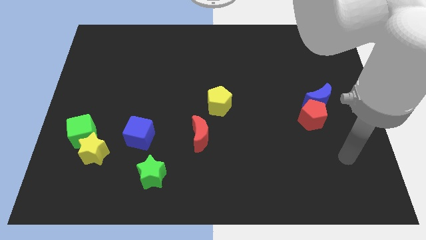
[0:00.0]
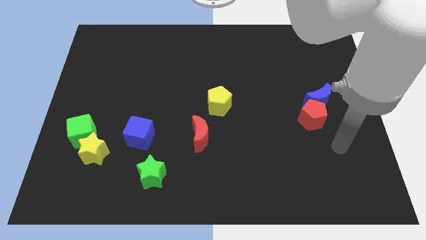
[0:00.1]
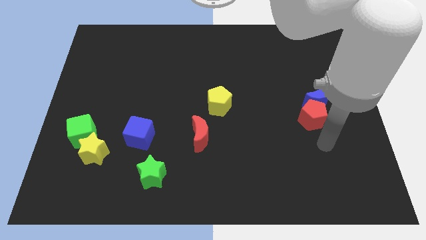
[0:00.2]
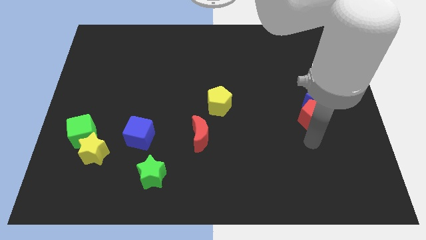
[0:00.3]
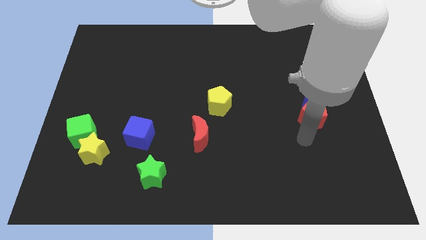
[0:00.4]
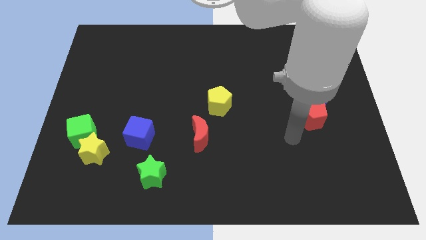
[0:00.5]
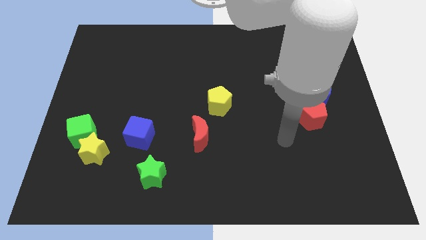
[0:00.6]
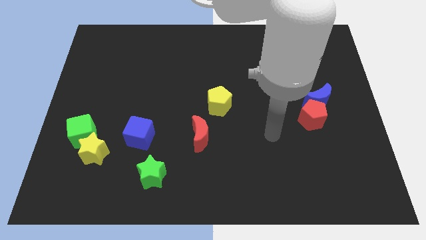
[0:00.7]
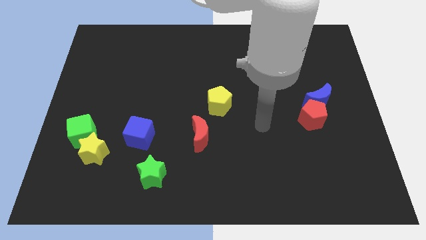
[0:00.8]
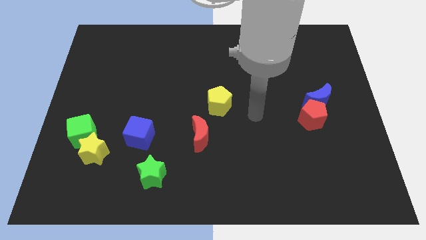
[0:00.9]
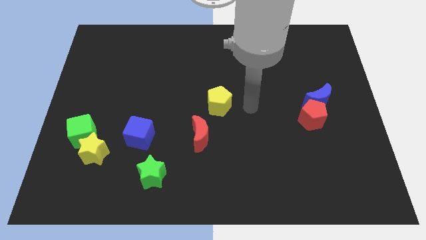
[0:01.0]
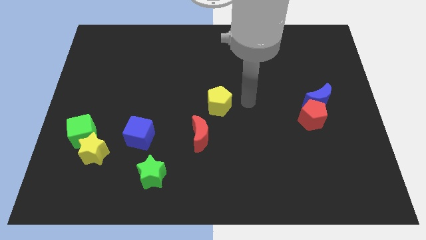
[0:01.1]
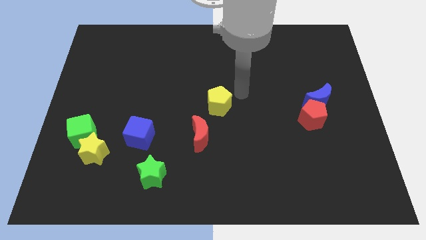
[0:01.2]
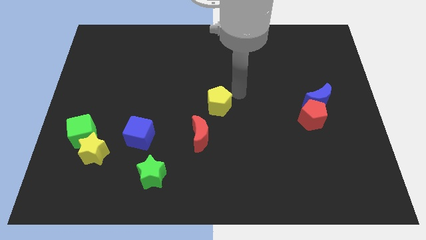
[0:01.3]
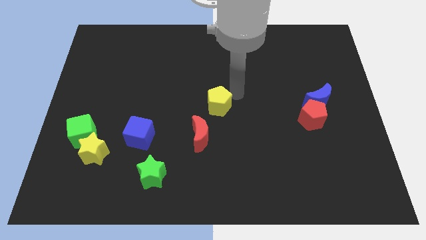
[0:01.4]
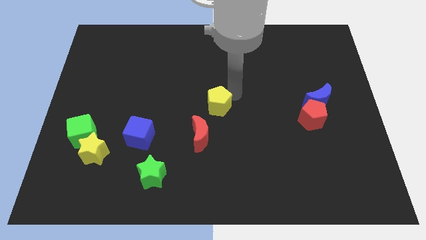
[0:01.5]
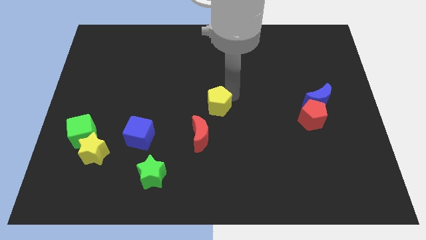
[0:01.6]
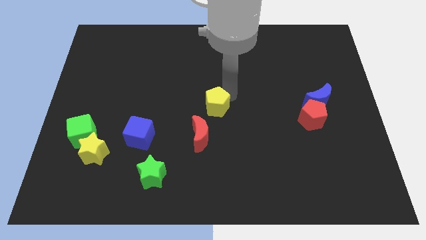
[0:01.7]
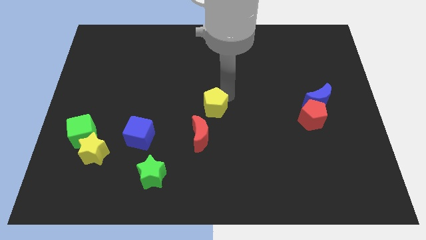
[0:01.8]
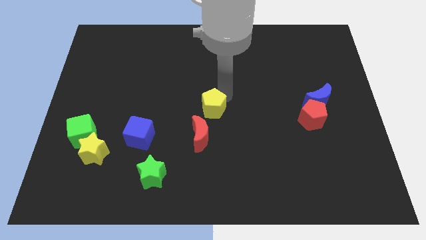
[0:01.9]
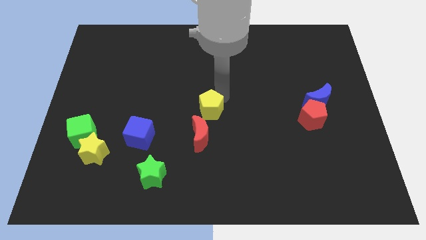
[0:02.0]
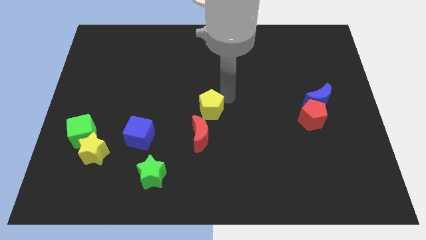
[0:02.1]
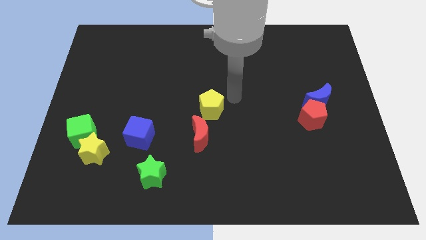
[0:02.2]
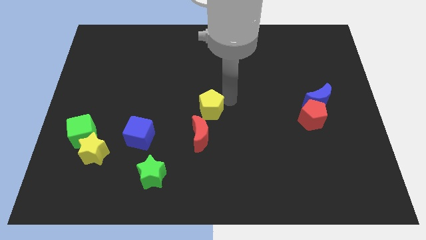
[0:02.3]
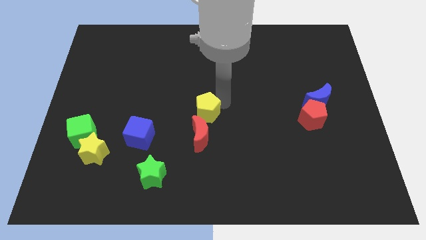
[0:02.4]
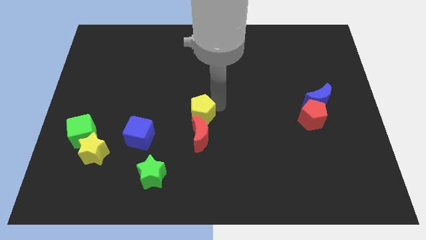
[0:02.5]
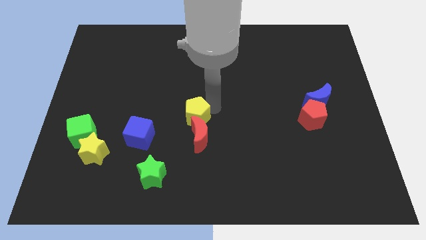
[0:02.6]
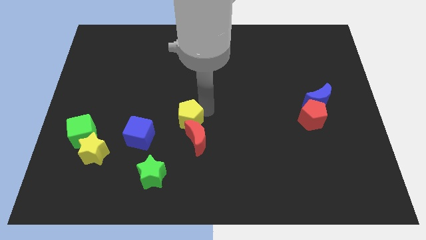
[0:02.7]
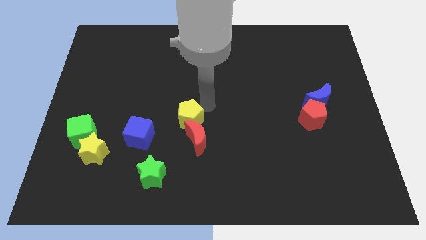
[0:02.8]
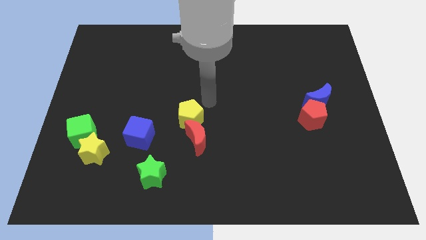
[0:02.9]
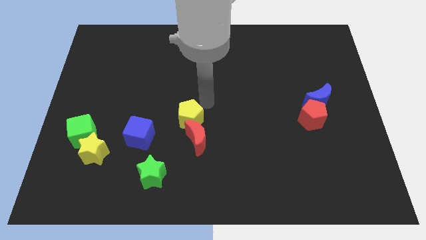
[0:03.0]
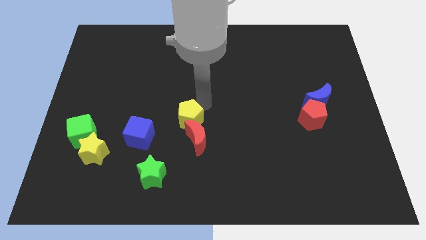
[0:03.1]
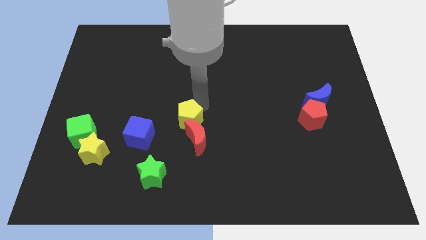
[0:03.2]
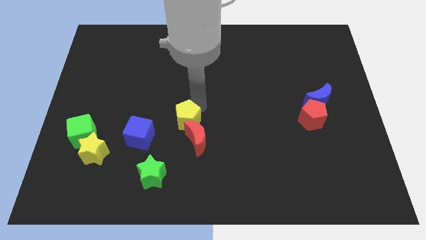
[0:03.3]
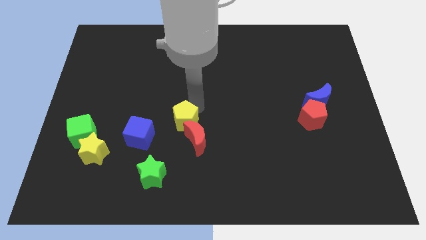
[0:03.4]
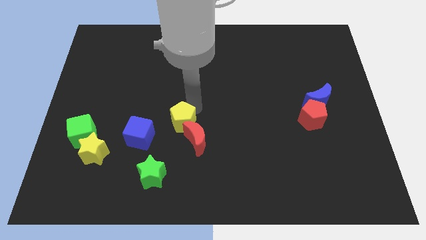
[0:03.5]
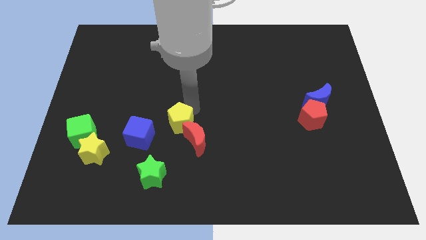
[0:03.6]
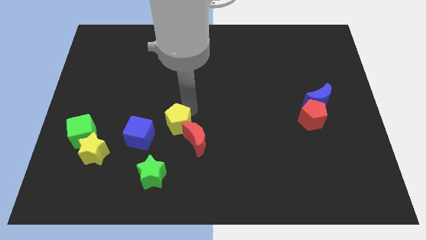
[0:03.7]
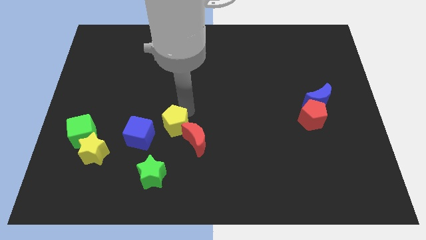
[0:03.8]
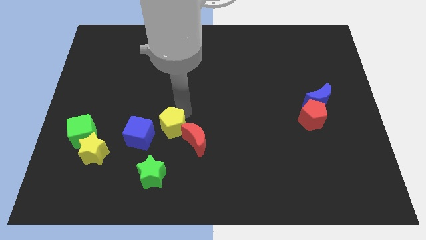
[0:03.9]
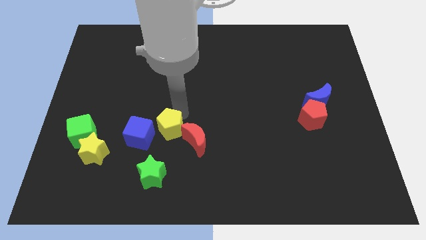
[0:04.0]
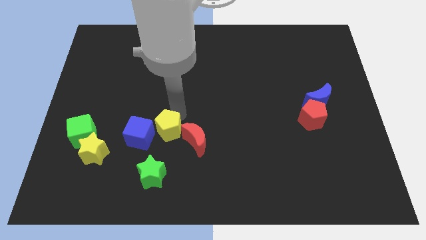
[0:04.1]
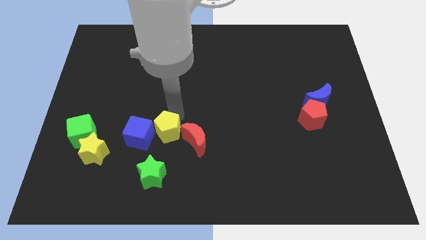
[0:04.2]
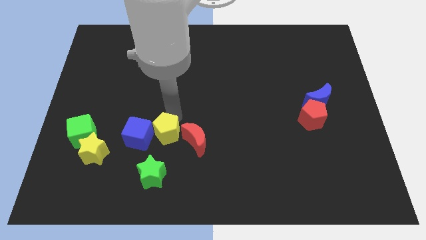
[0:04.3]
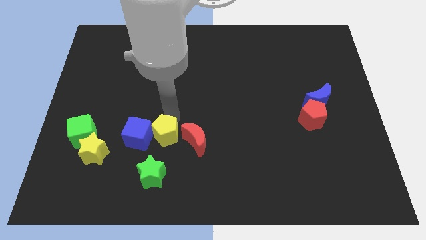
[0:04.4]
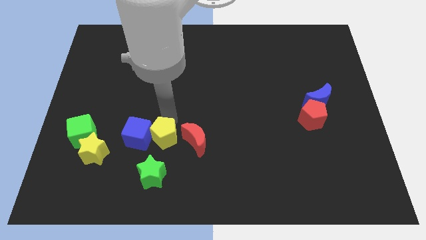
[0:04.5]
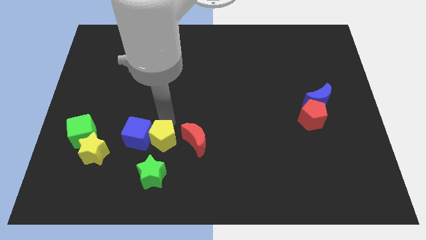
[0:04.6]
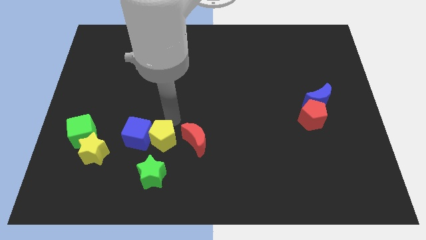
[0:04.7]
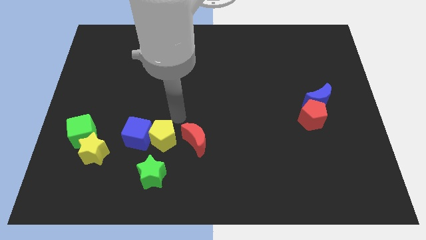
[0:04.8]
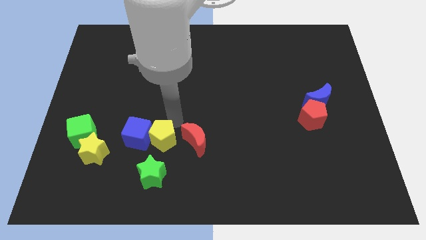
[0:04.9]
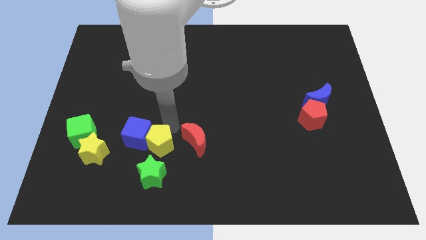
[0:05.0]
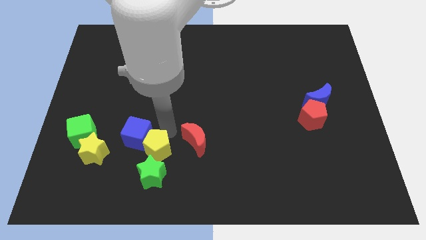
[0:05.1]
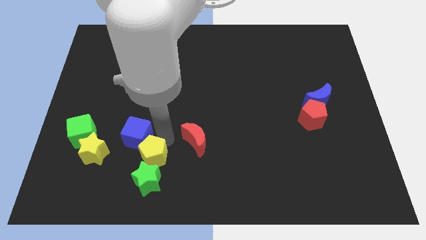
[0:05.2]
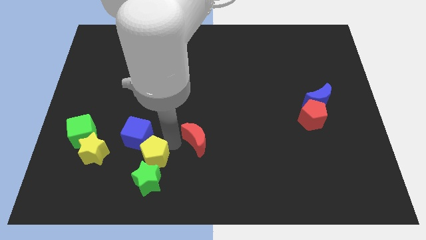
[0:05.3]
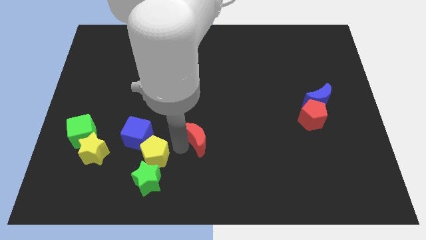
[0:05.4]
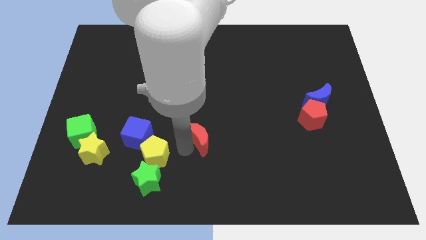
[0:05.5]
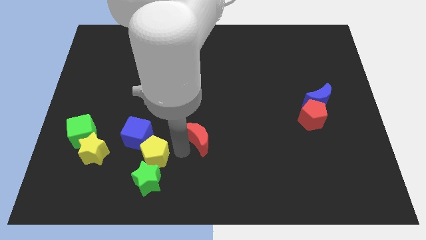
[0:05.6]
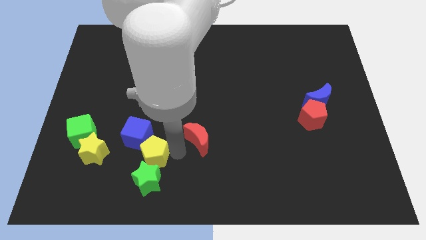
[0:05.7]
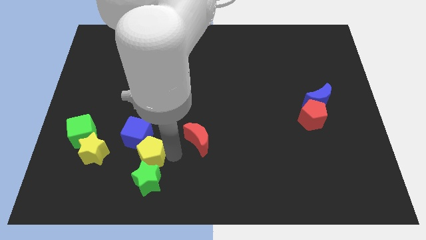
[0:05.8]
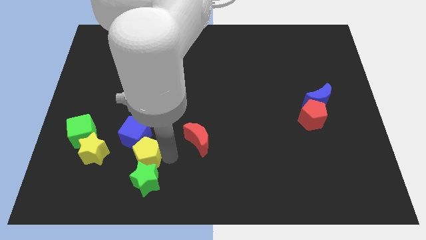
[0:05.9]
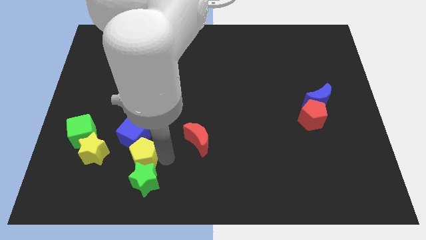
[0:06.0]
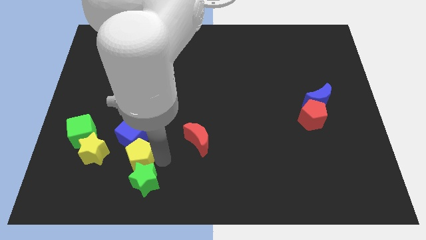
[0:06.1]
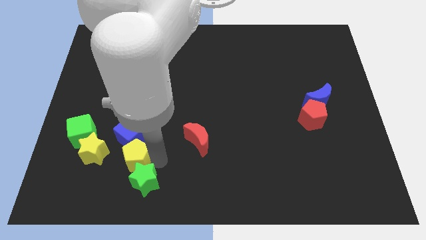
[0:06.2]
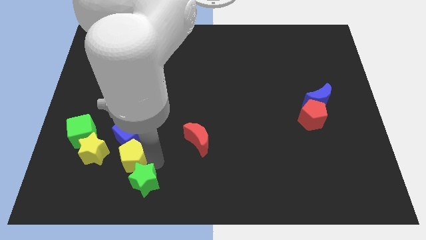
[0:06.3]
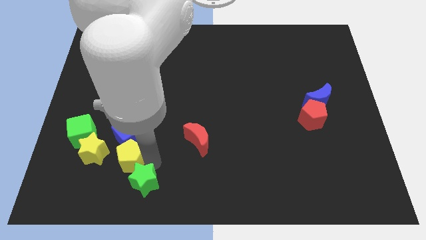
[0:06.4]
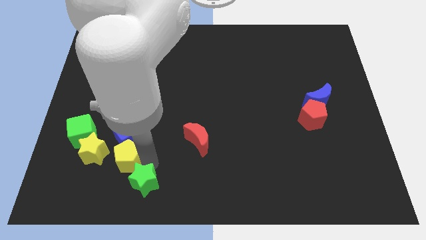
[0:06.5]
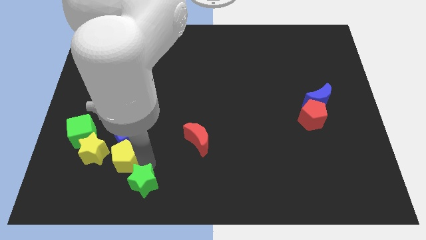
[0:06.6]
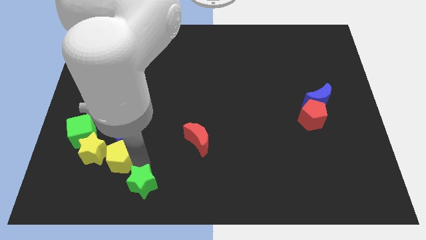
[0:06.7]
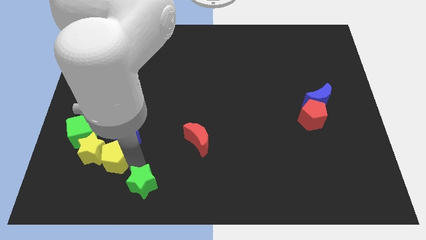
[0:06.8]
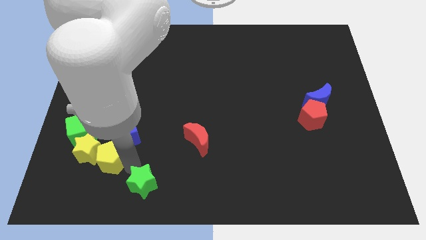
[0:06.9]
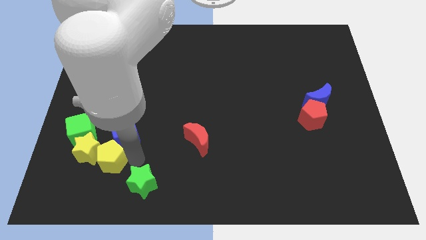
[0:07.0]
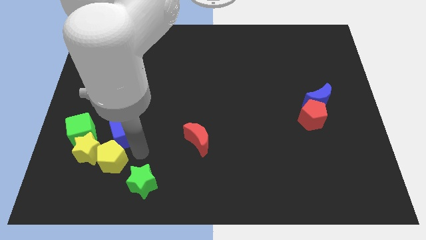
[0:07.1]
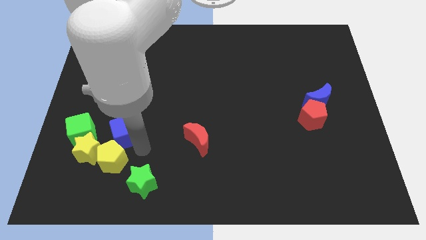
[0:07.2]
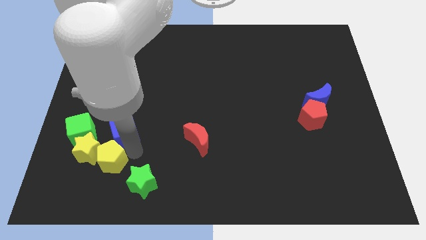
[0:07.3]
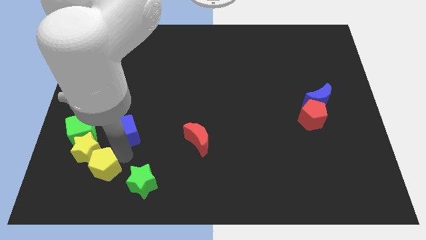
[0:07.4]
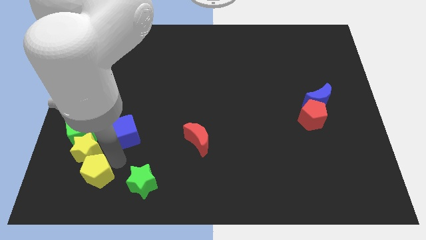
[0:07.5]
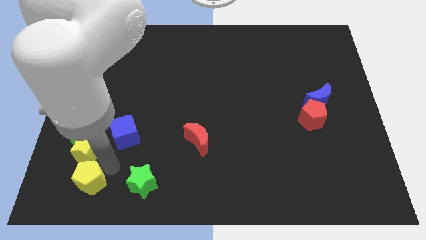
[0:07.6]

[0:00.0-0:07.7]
move the yellow pentagon to the bottom side of the green cube
